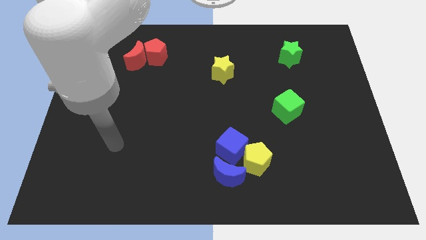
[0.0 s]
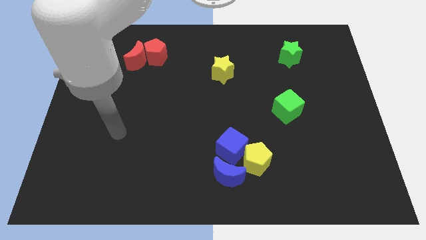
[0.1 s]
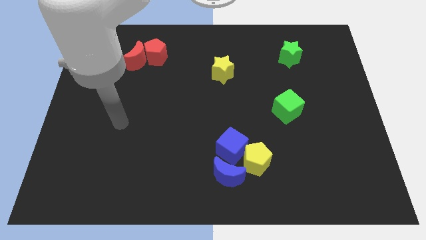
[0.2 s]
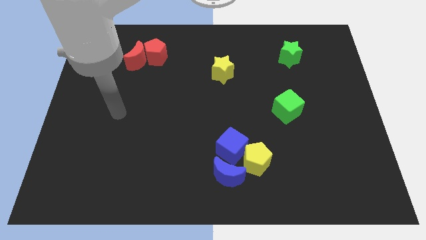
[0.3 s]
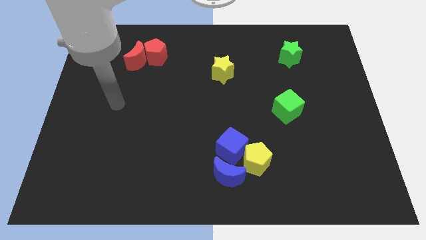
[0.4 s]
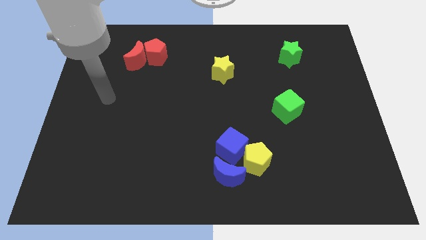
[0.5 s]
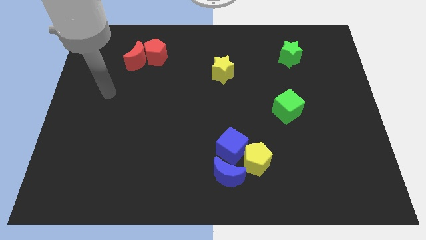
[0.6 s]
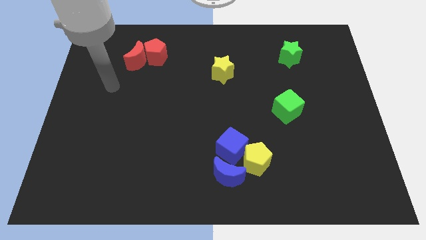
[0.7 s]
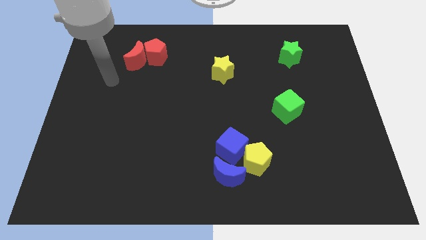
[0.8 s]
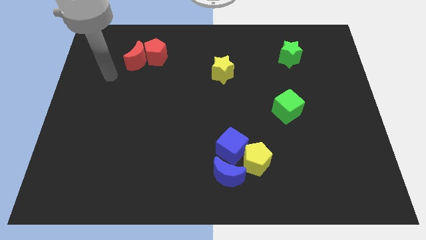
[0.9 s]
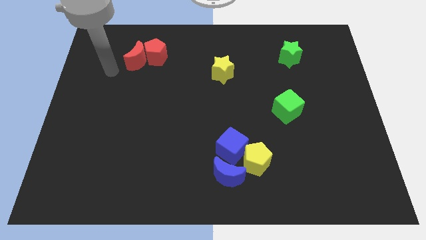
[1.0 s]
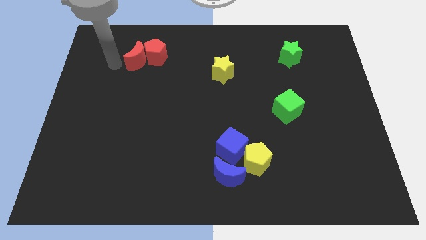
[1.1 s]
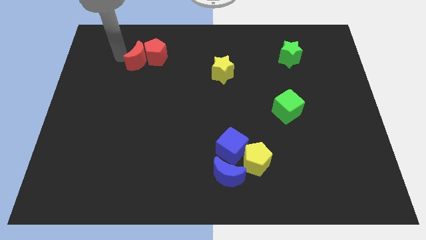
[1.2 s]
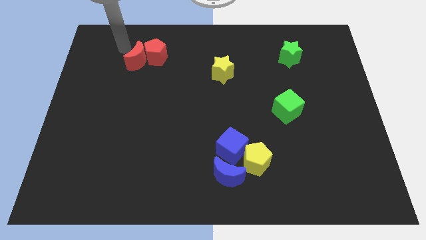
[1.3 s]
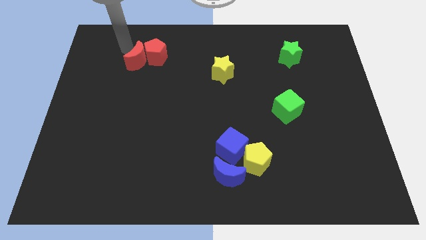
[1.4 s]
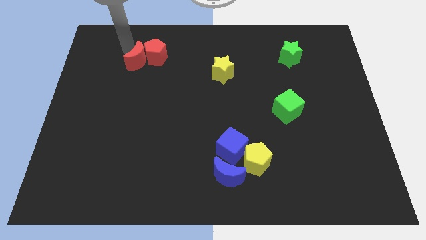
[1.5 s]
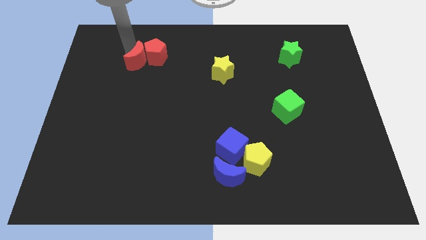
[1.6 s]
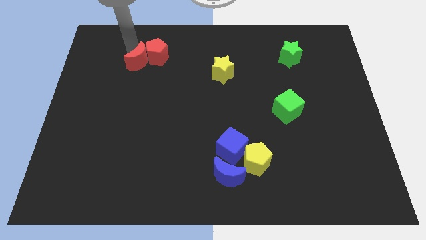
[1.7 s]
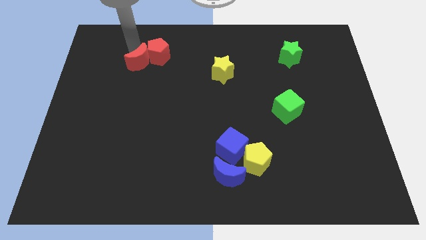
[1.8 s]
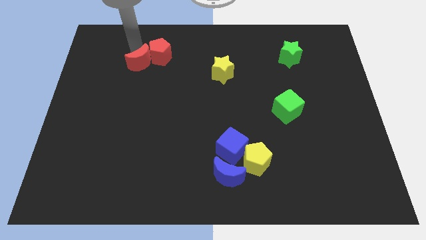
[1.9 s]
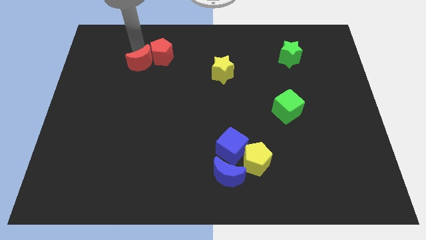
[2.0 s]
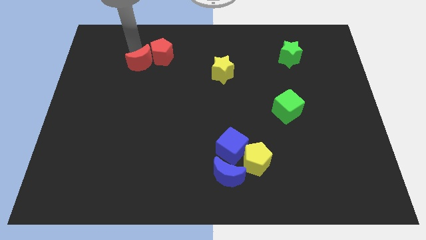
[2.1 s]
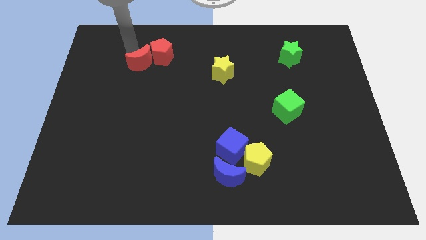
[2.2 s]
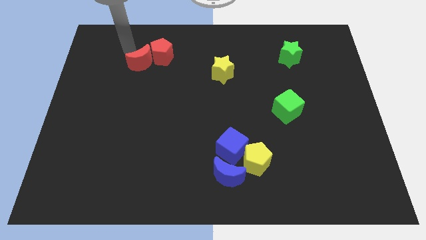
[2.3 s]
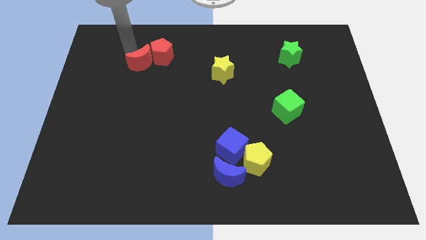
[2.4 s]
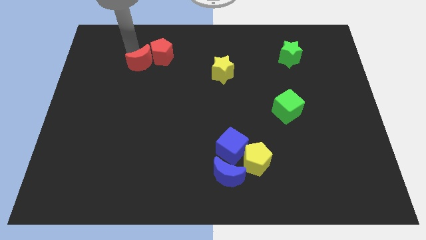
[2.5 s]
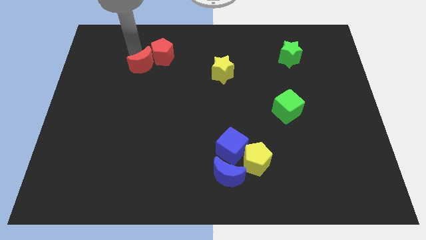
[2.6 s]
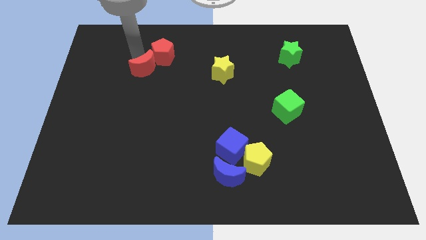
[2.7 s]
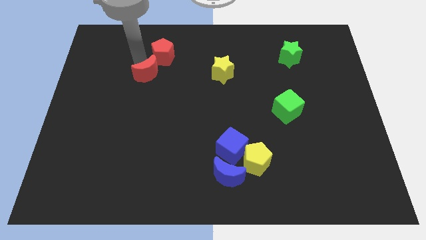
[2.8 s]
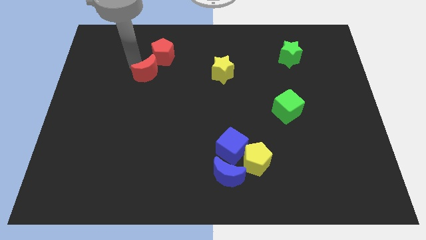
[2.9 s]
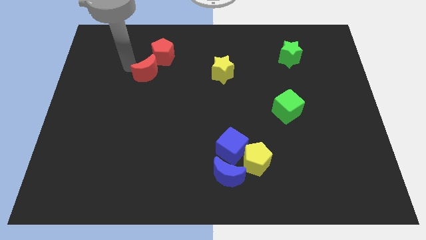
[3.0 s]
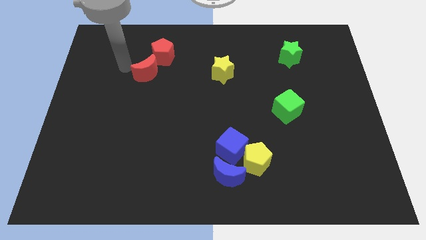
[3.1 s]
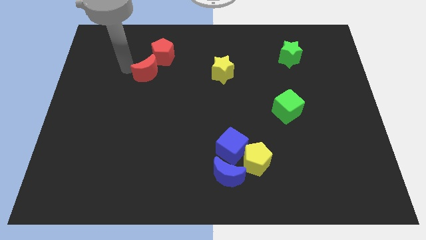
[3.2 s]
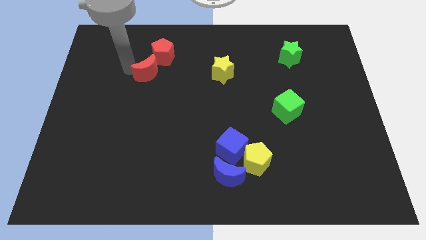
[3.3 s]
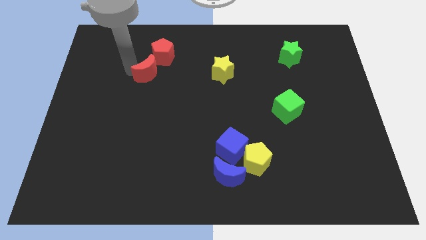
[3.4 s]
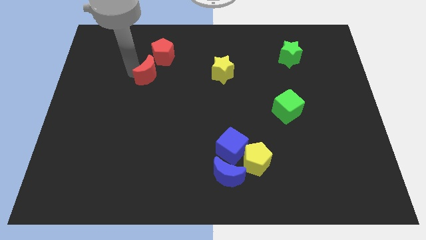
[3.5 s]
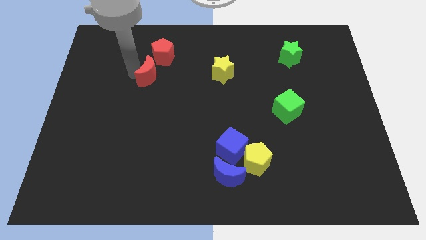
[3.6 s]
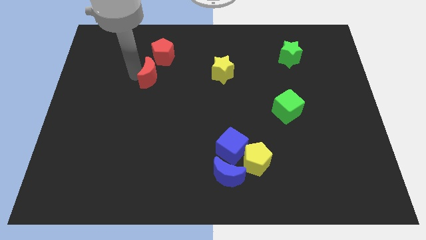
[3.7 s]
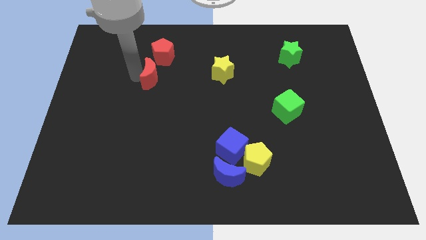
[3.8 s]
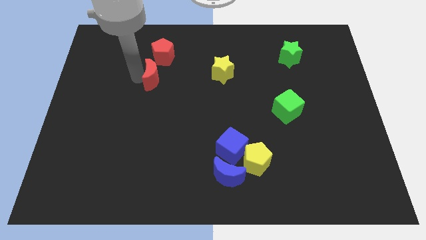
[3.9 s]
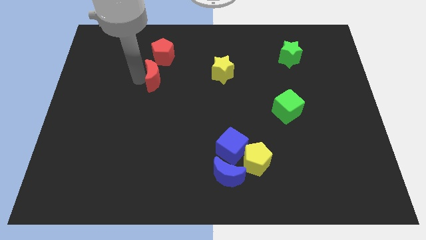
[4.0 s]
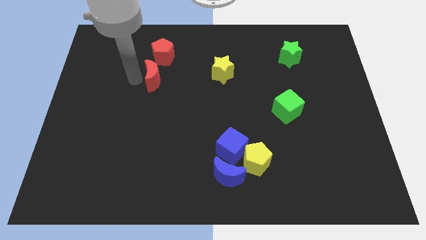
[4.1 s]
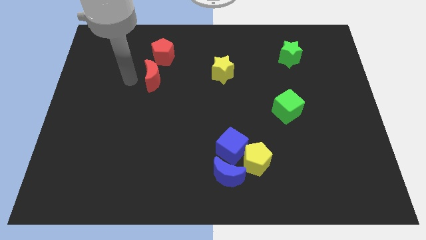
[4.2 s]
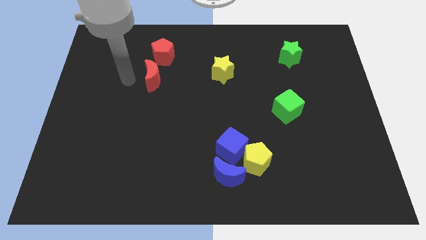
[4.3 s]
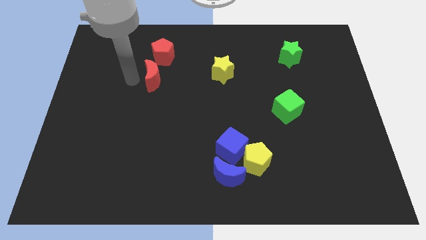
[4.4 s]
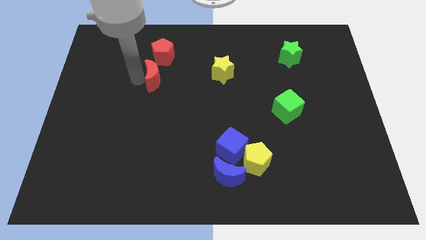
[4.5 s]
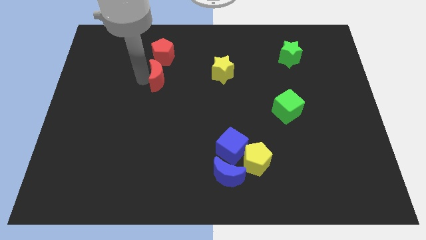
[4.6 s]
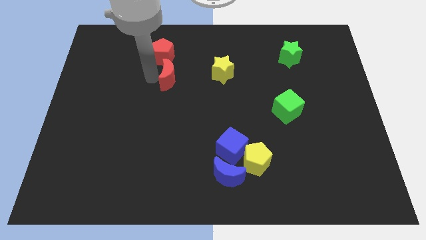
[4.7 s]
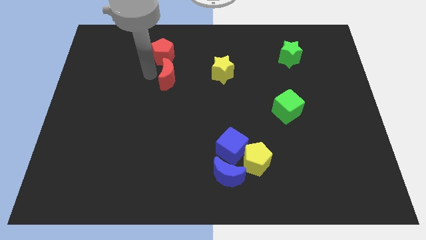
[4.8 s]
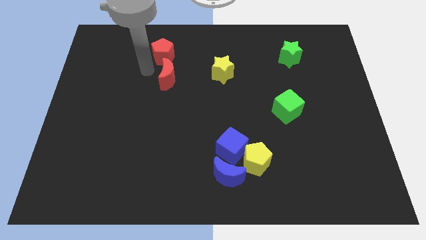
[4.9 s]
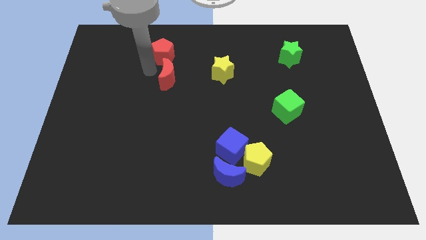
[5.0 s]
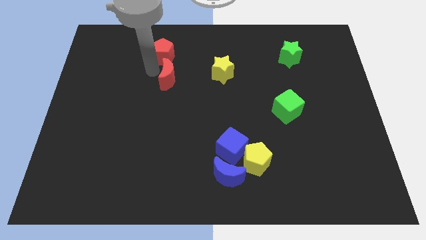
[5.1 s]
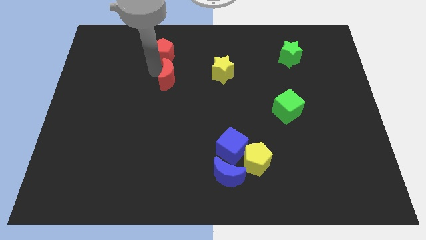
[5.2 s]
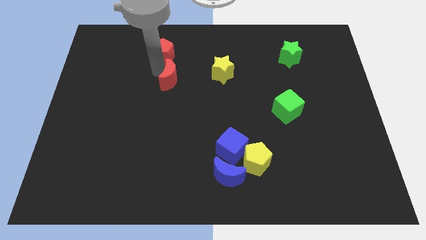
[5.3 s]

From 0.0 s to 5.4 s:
move the red moon to the center of the board

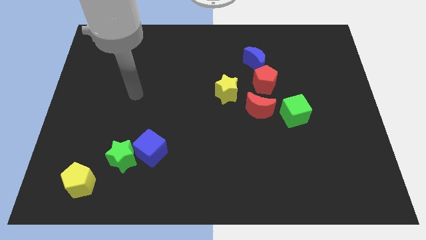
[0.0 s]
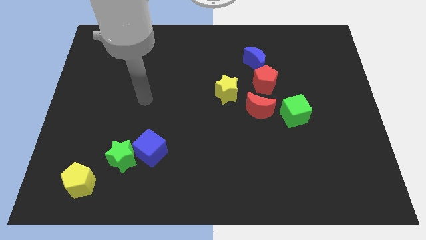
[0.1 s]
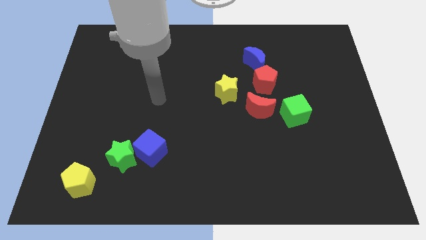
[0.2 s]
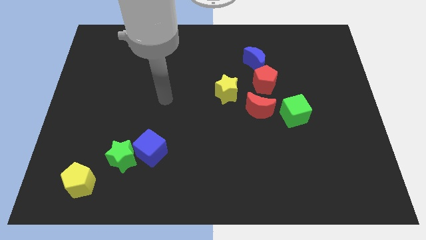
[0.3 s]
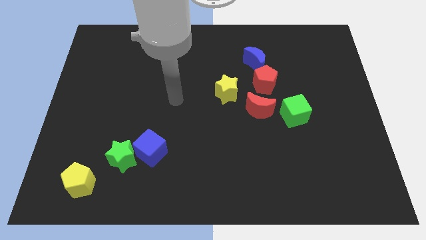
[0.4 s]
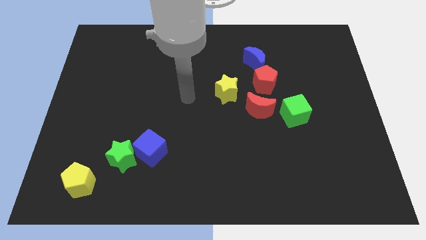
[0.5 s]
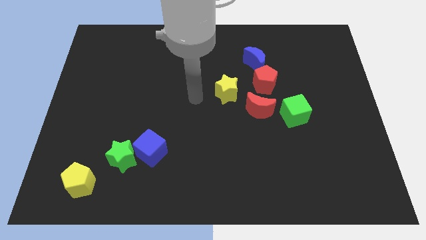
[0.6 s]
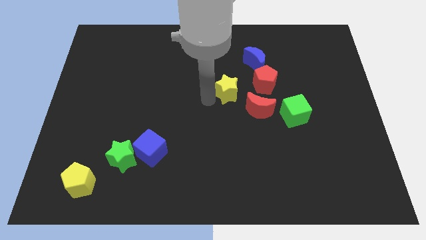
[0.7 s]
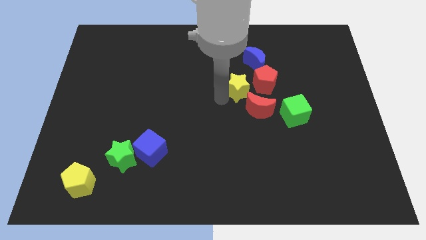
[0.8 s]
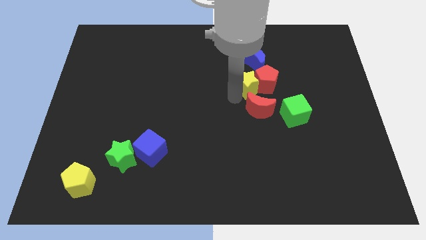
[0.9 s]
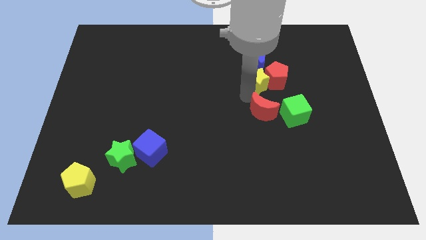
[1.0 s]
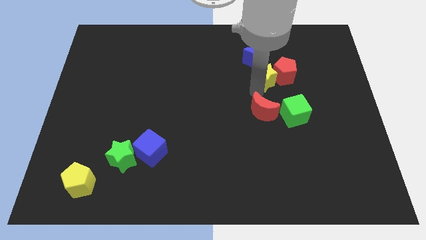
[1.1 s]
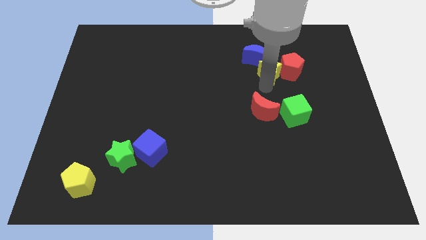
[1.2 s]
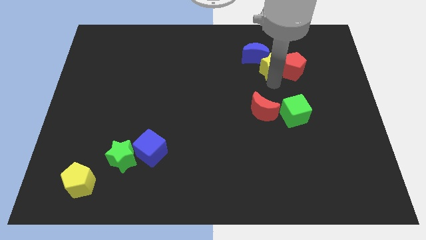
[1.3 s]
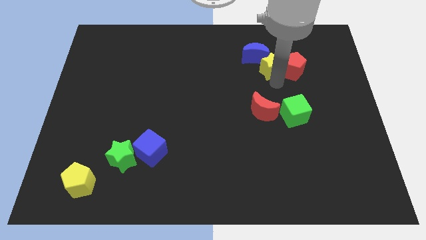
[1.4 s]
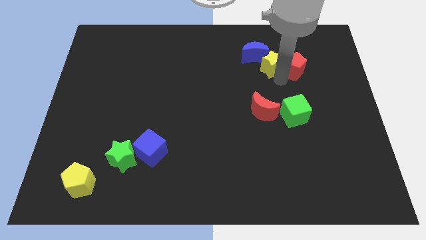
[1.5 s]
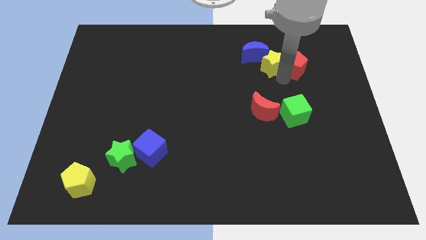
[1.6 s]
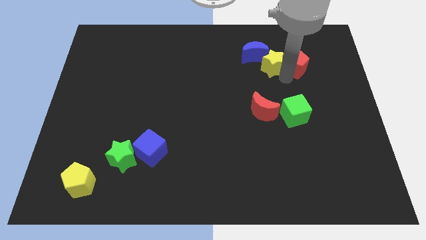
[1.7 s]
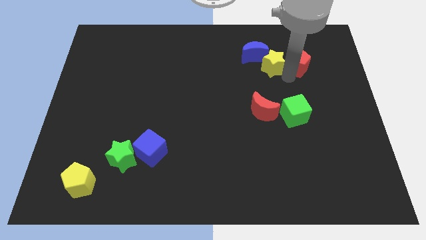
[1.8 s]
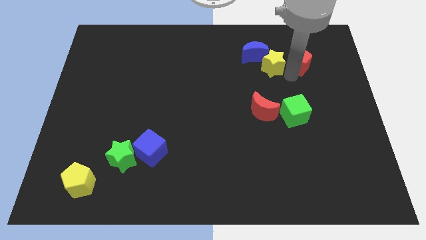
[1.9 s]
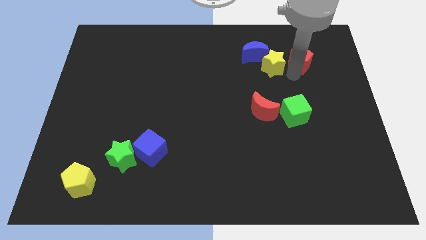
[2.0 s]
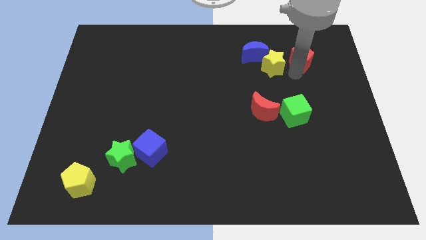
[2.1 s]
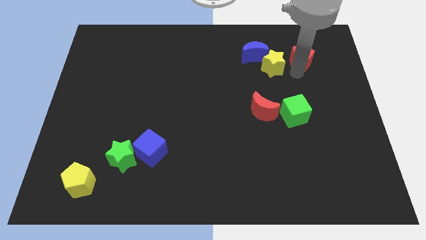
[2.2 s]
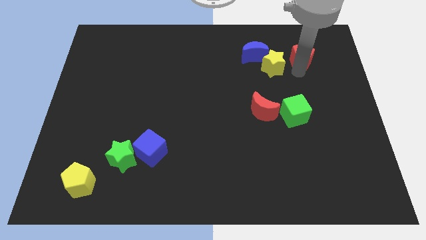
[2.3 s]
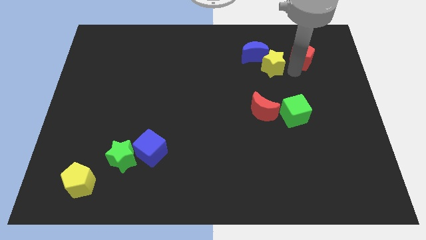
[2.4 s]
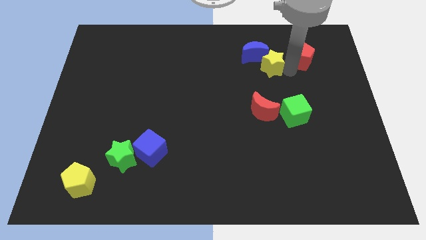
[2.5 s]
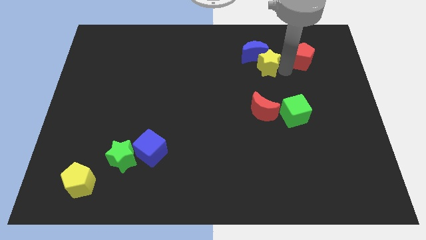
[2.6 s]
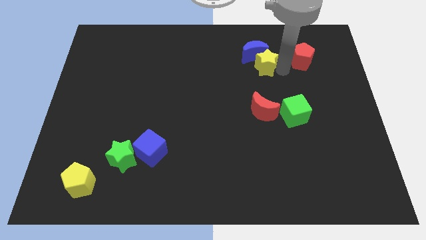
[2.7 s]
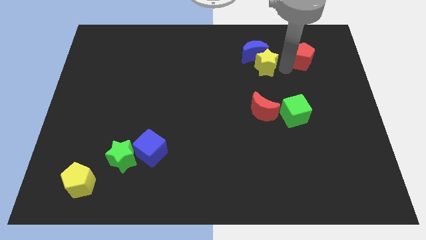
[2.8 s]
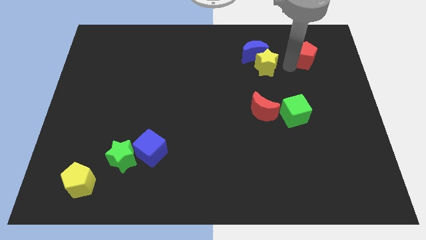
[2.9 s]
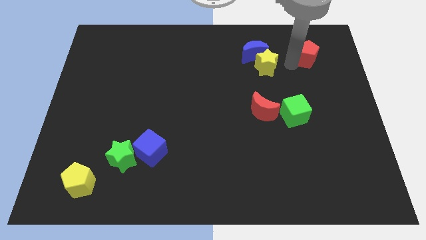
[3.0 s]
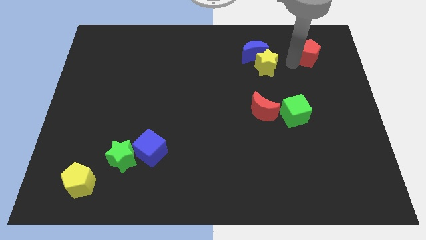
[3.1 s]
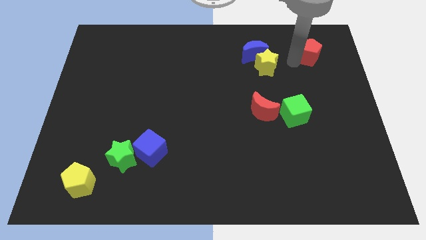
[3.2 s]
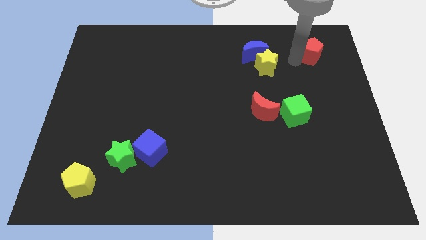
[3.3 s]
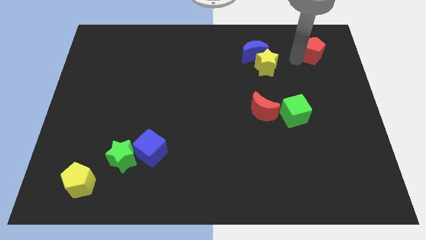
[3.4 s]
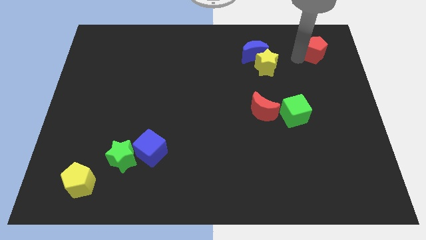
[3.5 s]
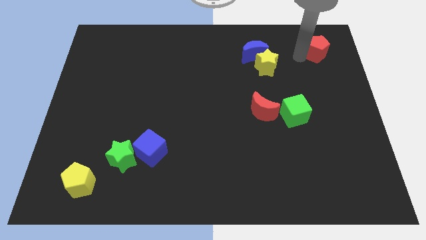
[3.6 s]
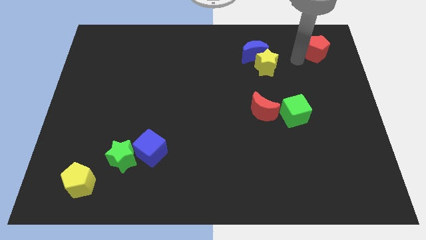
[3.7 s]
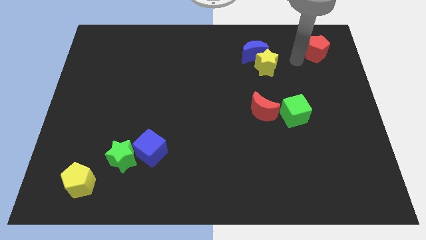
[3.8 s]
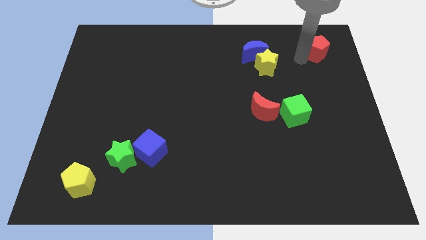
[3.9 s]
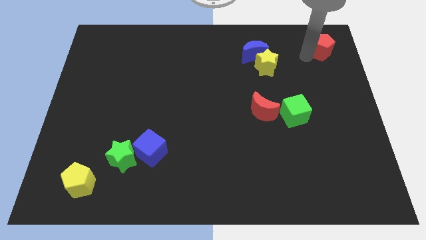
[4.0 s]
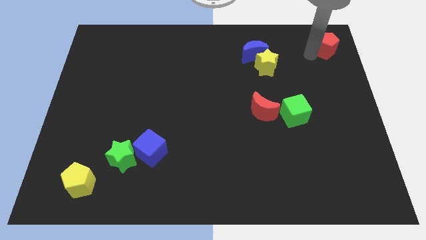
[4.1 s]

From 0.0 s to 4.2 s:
move the red pentagon to the top right
